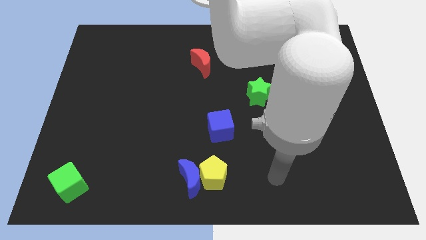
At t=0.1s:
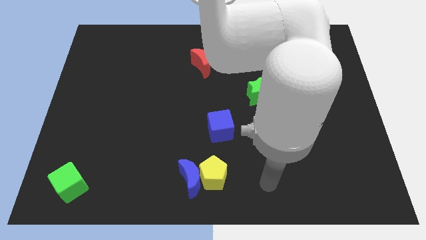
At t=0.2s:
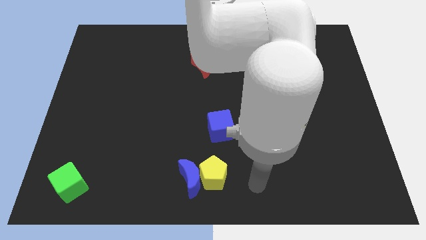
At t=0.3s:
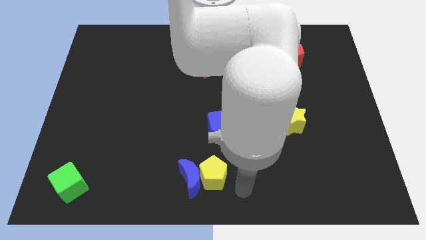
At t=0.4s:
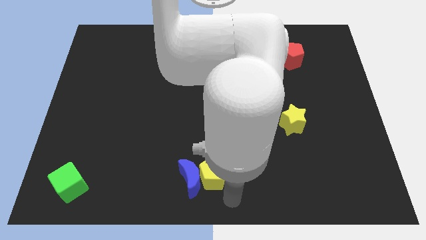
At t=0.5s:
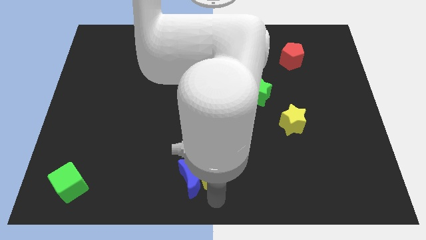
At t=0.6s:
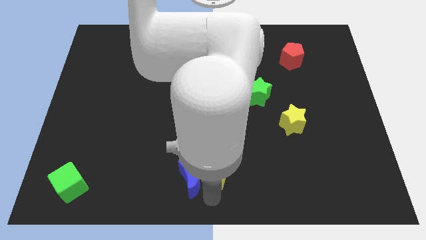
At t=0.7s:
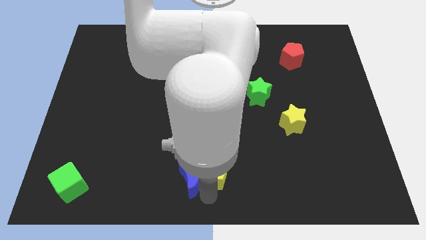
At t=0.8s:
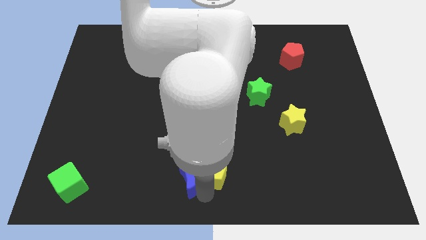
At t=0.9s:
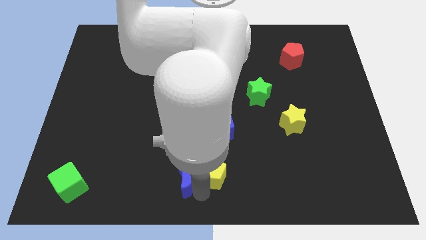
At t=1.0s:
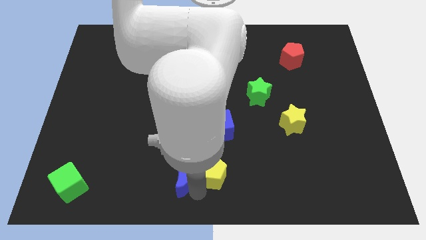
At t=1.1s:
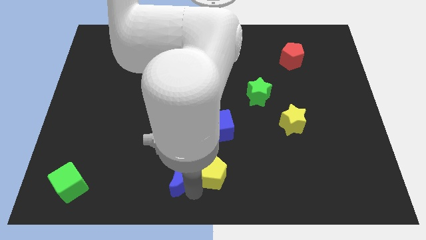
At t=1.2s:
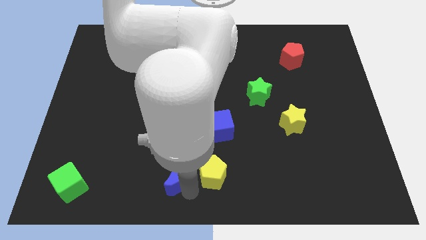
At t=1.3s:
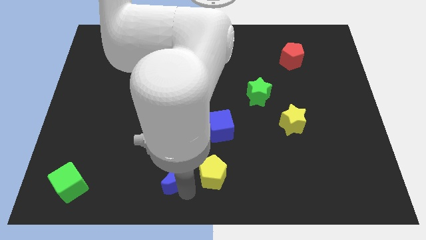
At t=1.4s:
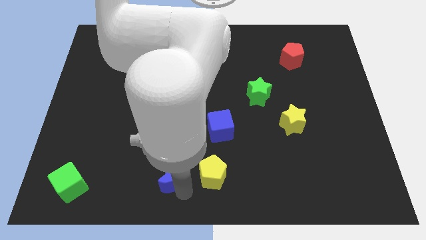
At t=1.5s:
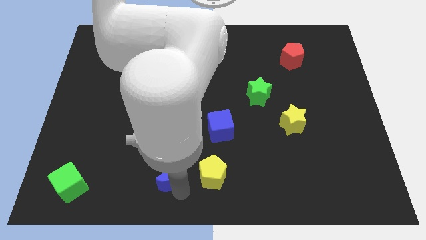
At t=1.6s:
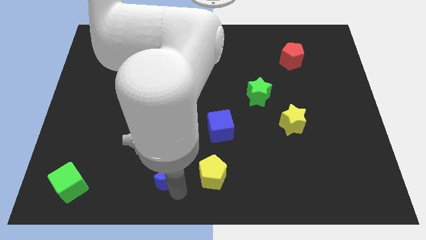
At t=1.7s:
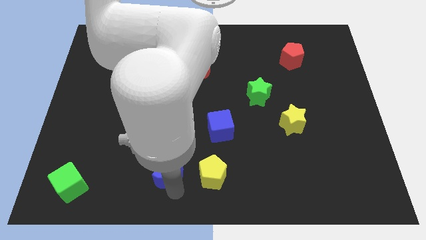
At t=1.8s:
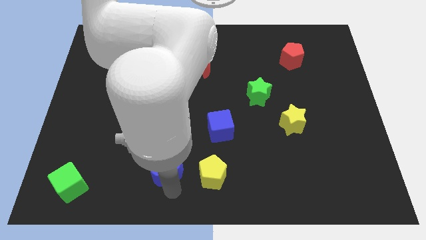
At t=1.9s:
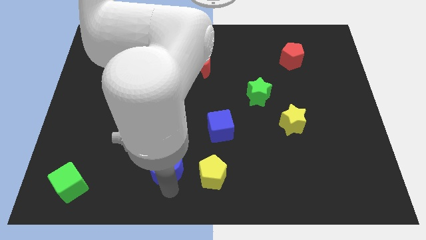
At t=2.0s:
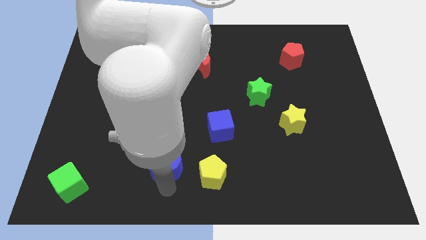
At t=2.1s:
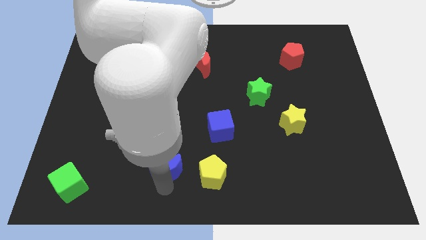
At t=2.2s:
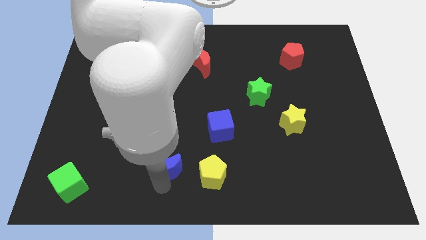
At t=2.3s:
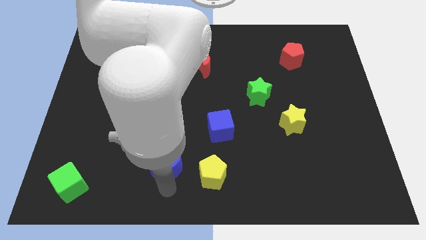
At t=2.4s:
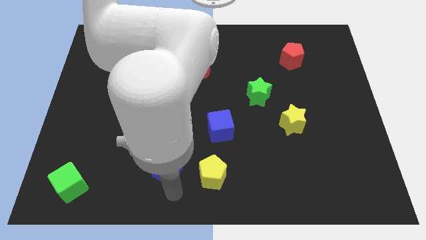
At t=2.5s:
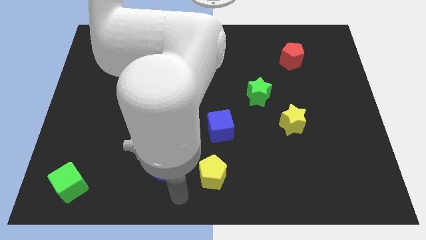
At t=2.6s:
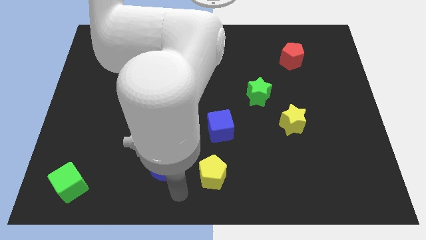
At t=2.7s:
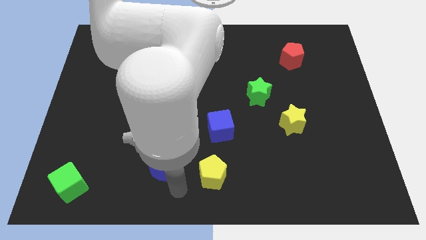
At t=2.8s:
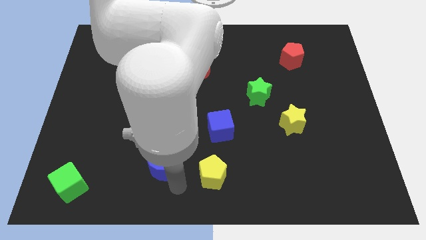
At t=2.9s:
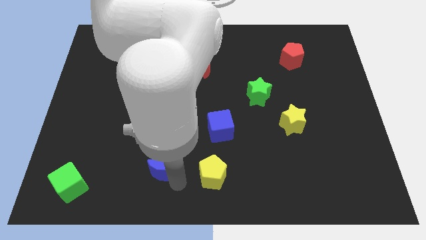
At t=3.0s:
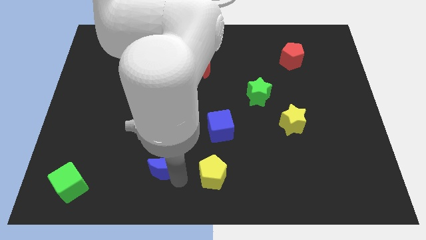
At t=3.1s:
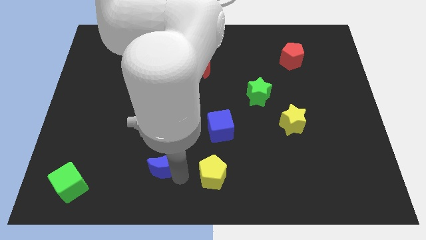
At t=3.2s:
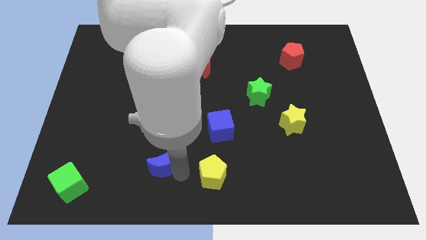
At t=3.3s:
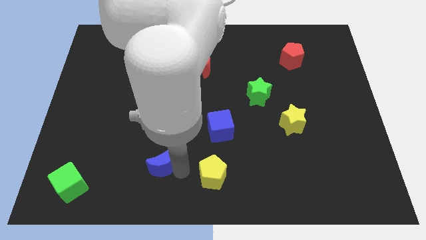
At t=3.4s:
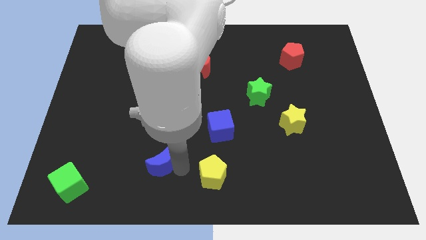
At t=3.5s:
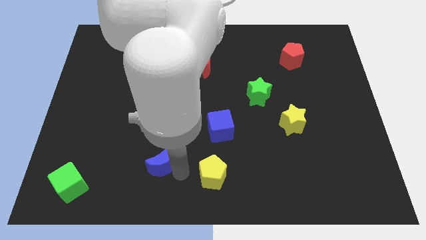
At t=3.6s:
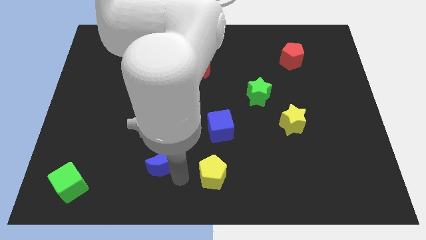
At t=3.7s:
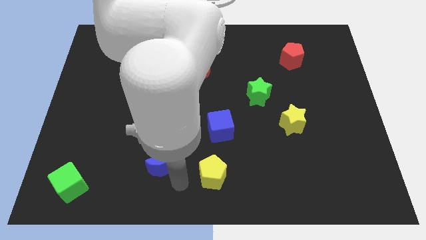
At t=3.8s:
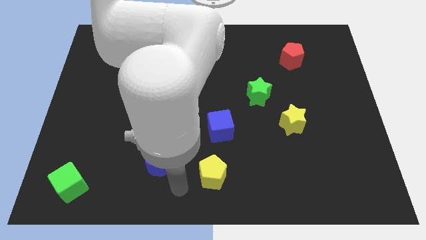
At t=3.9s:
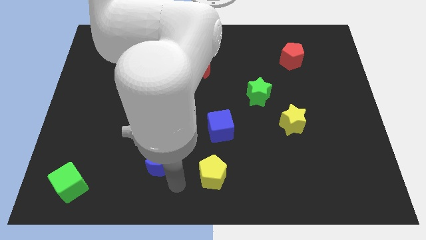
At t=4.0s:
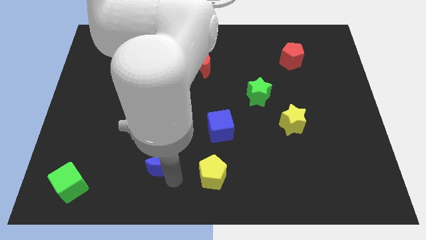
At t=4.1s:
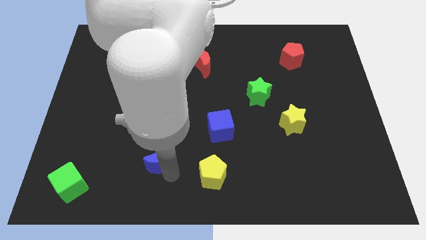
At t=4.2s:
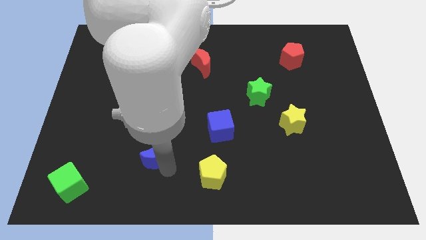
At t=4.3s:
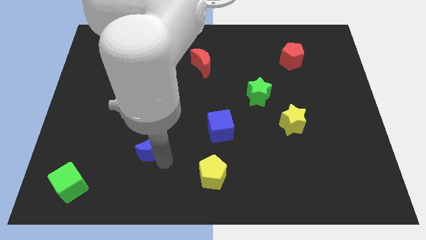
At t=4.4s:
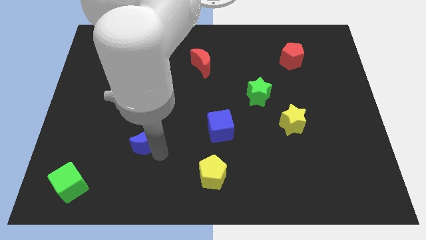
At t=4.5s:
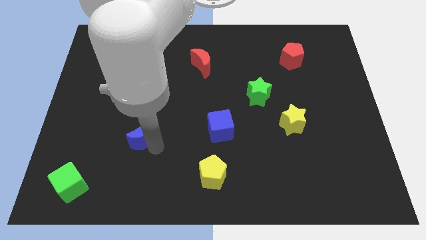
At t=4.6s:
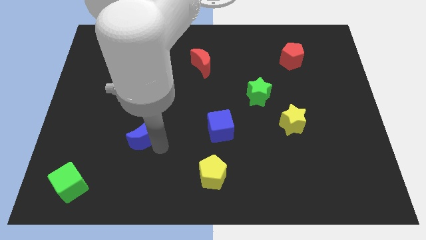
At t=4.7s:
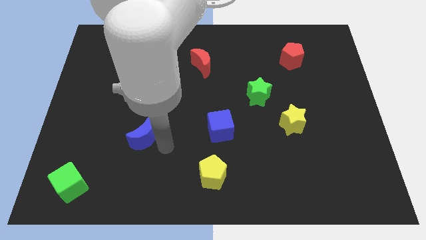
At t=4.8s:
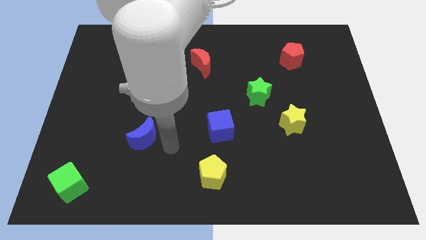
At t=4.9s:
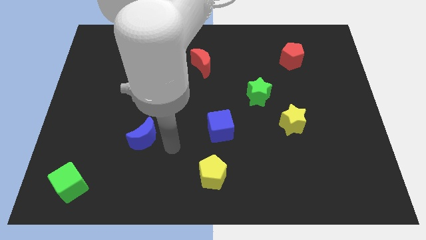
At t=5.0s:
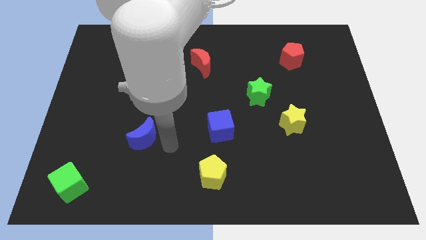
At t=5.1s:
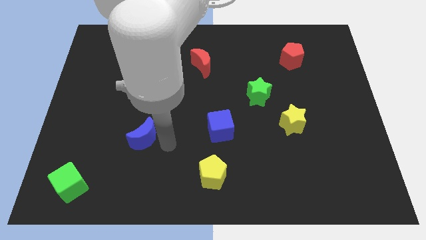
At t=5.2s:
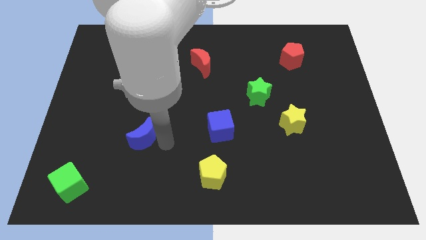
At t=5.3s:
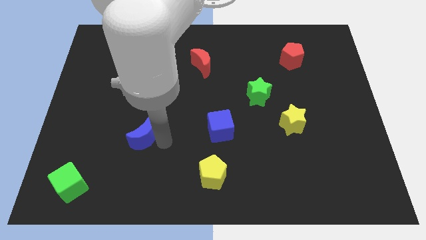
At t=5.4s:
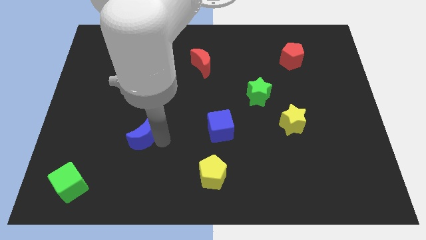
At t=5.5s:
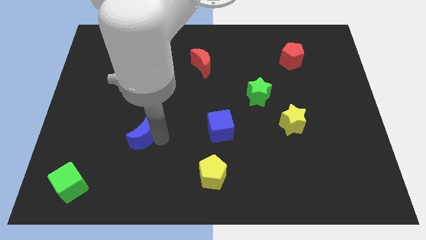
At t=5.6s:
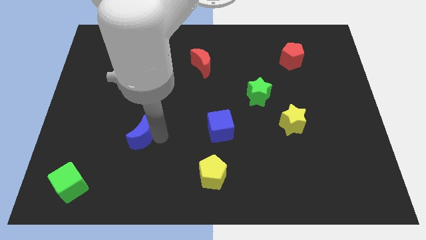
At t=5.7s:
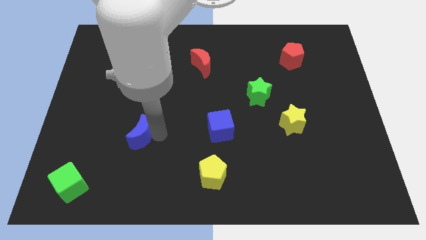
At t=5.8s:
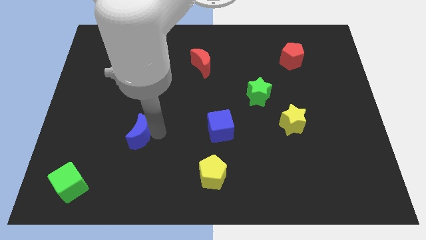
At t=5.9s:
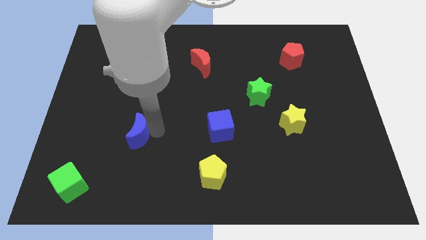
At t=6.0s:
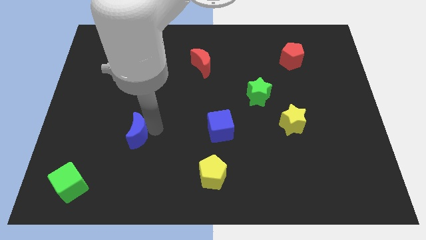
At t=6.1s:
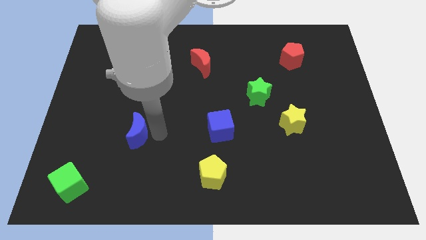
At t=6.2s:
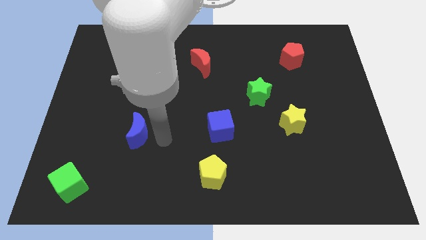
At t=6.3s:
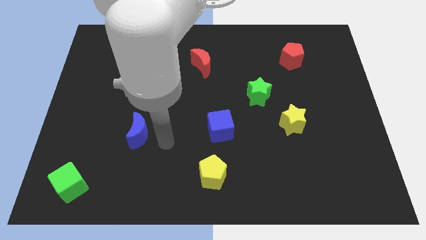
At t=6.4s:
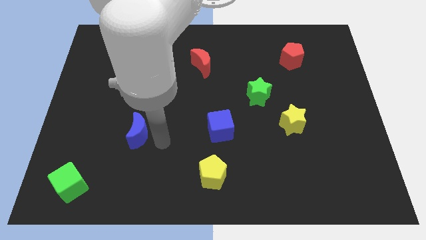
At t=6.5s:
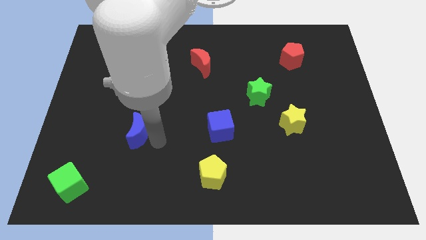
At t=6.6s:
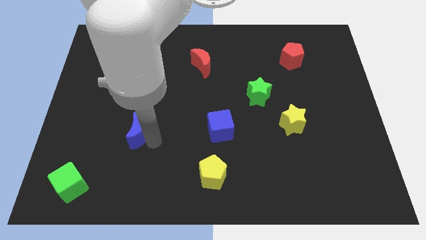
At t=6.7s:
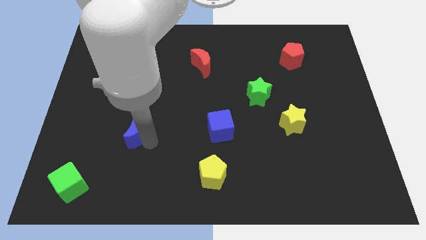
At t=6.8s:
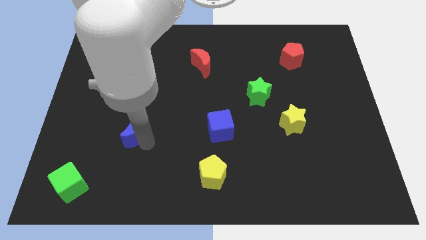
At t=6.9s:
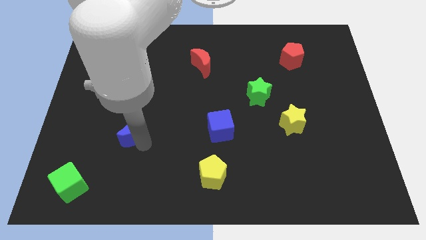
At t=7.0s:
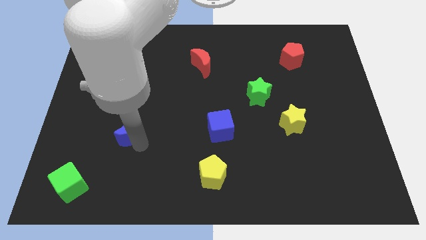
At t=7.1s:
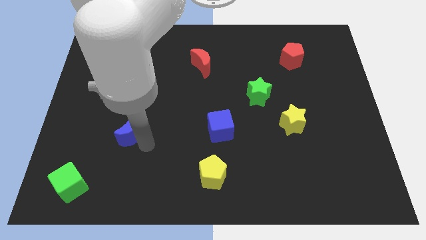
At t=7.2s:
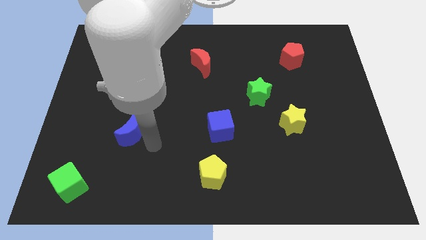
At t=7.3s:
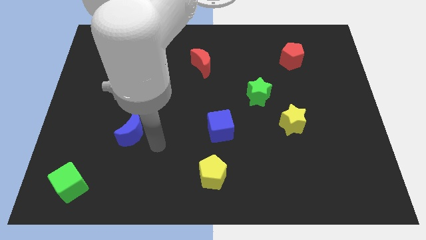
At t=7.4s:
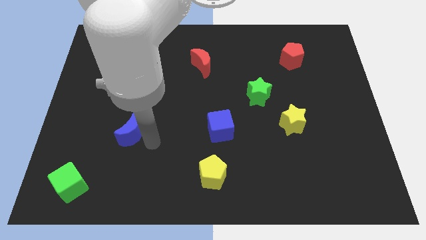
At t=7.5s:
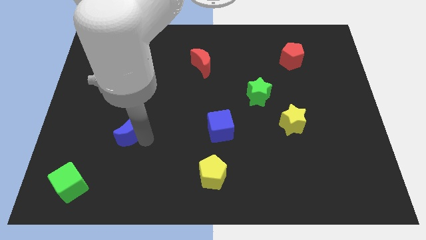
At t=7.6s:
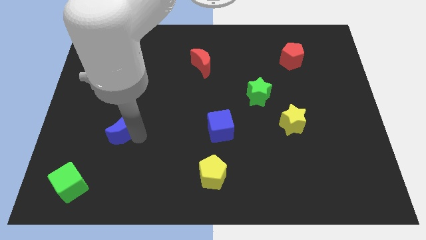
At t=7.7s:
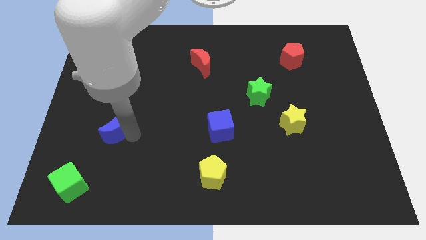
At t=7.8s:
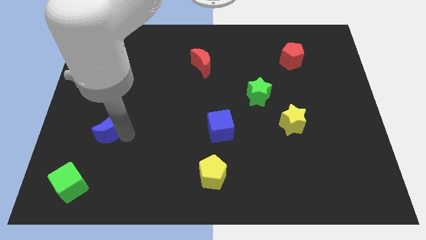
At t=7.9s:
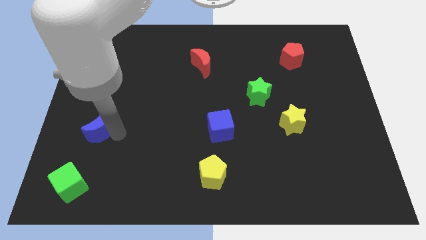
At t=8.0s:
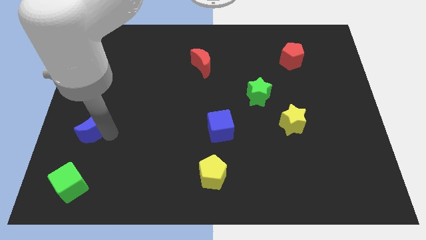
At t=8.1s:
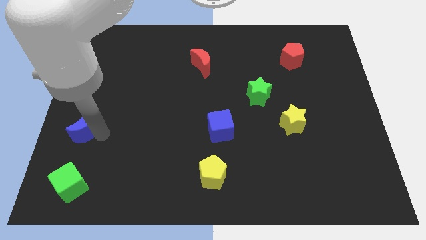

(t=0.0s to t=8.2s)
put the blue moon to the center left
